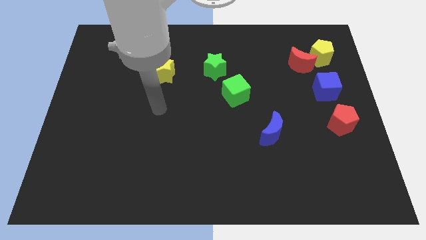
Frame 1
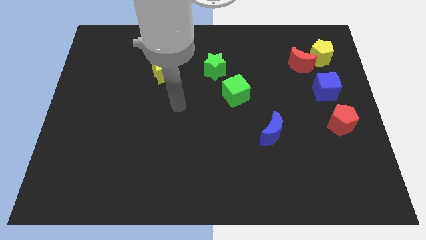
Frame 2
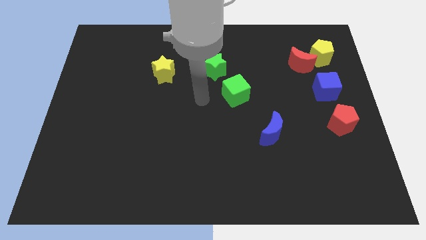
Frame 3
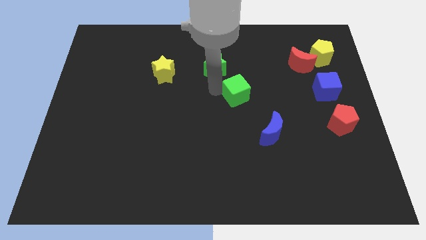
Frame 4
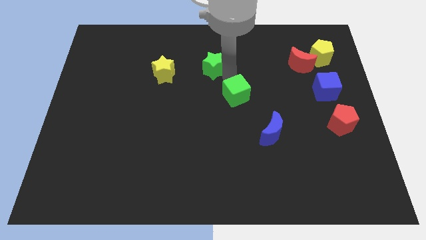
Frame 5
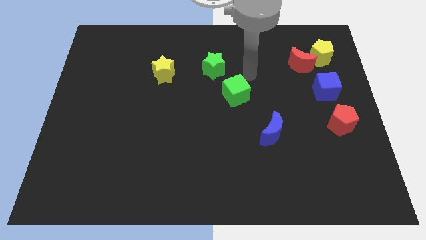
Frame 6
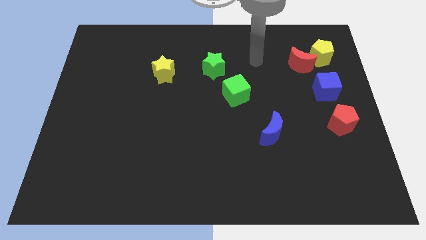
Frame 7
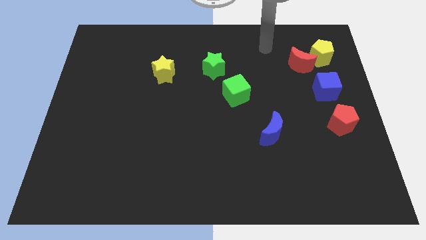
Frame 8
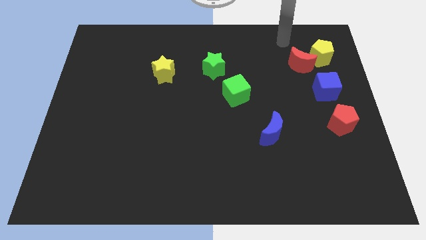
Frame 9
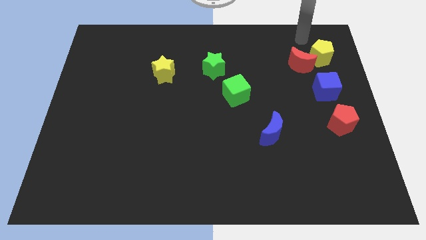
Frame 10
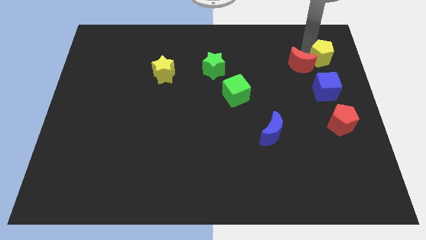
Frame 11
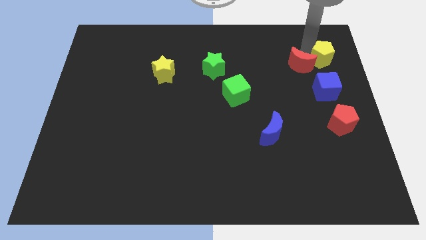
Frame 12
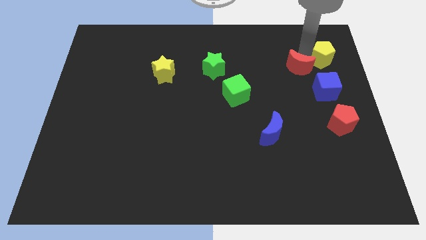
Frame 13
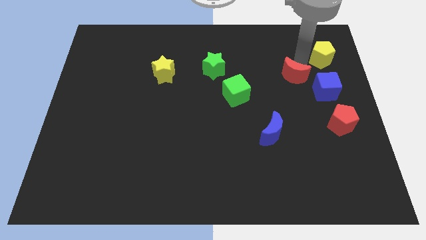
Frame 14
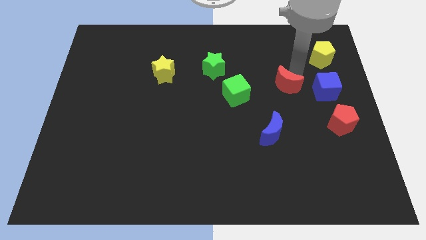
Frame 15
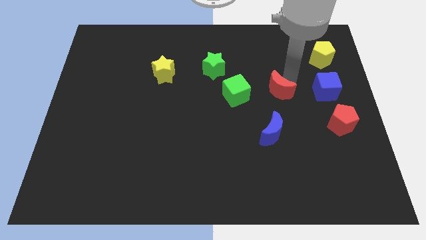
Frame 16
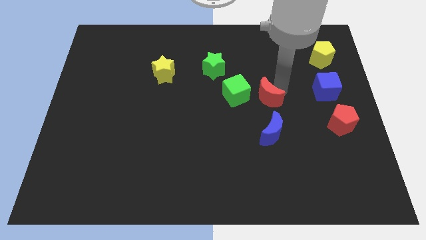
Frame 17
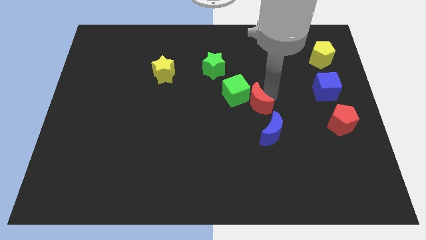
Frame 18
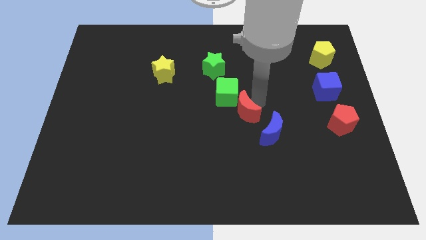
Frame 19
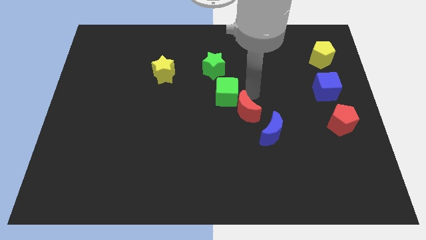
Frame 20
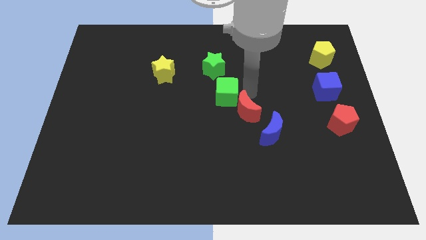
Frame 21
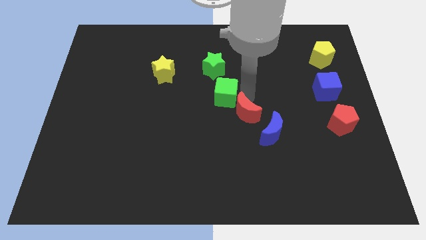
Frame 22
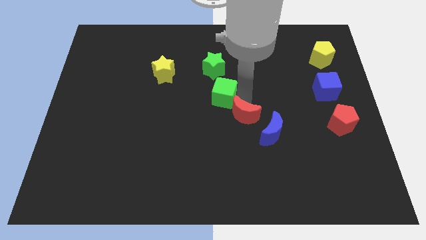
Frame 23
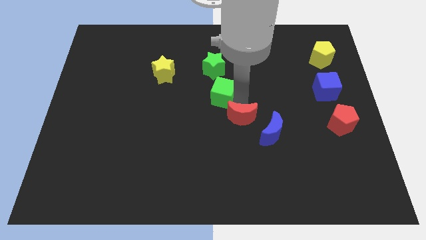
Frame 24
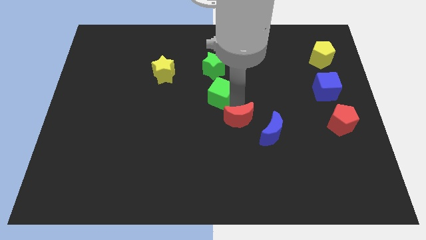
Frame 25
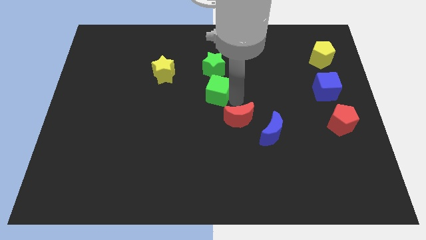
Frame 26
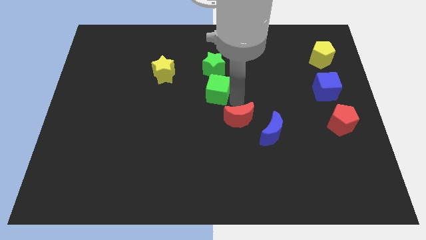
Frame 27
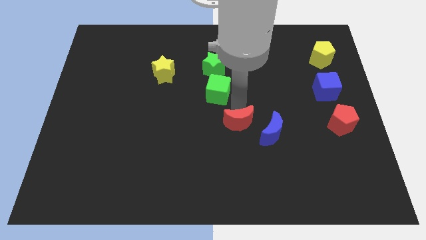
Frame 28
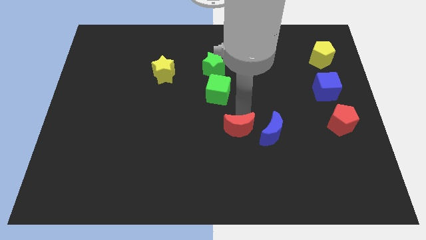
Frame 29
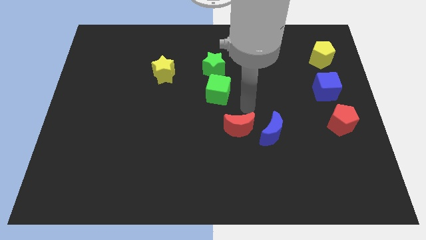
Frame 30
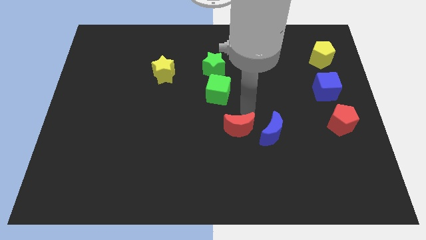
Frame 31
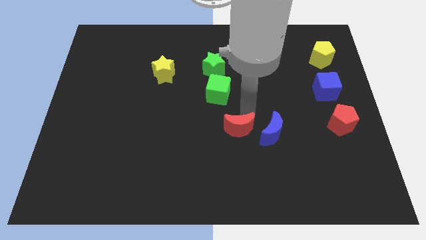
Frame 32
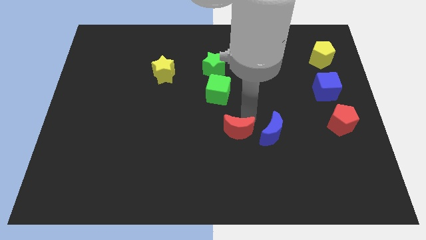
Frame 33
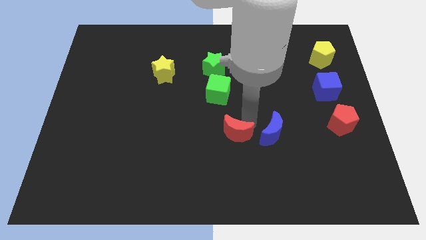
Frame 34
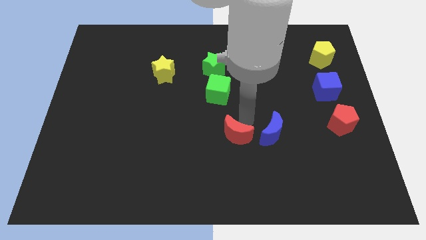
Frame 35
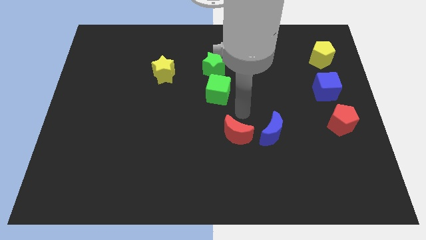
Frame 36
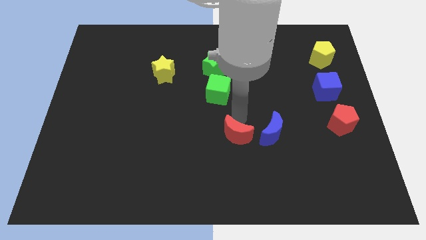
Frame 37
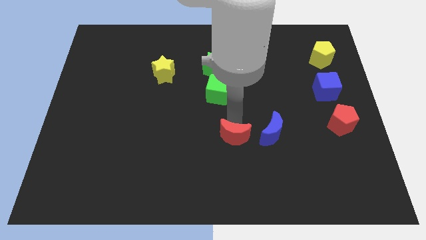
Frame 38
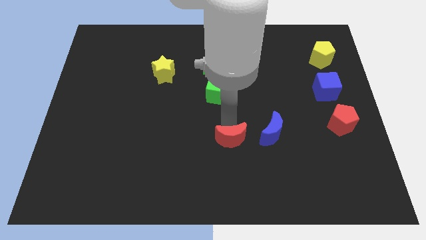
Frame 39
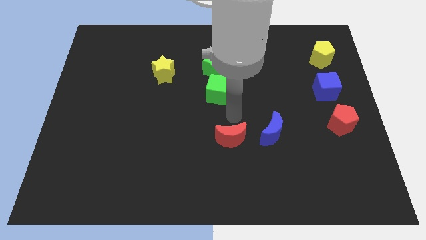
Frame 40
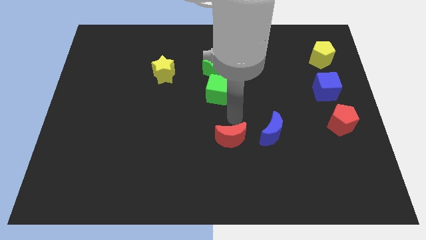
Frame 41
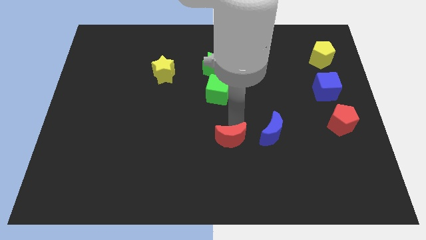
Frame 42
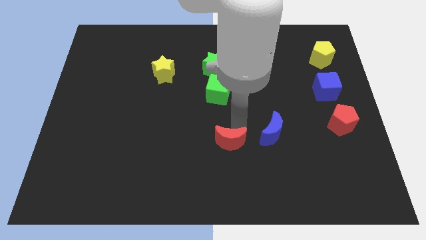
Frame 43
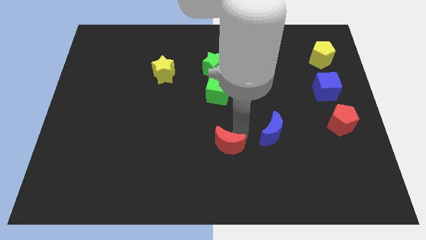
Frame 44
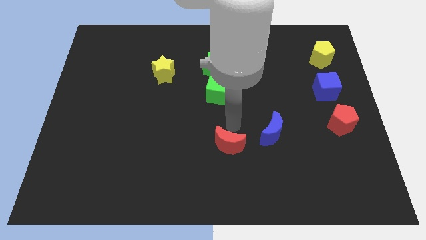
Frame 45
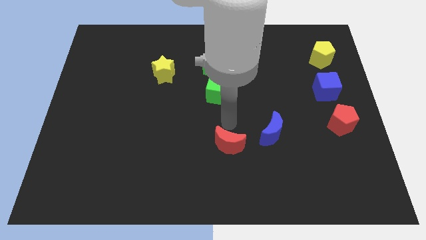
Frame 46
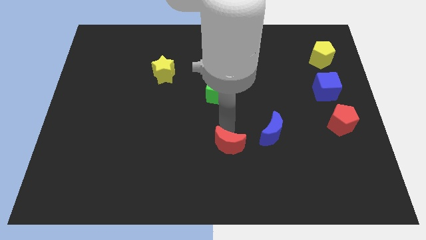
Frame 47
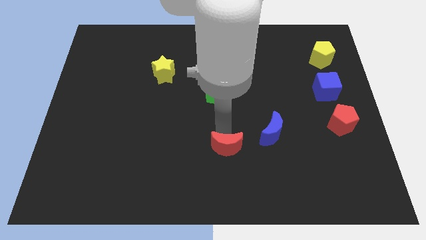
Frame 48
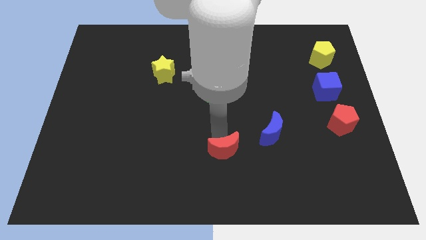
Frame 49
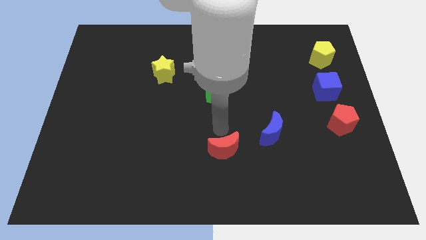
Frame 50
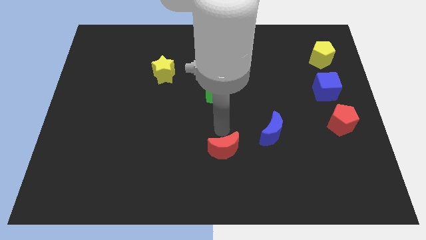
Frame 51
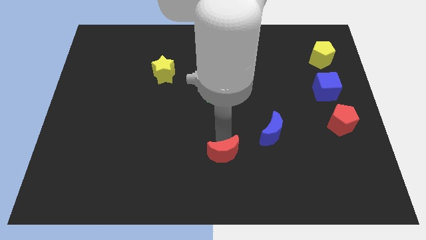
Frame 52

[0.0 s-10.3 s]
put the red moon to the bottom side
